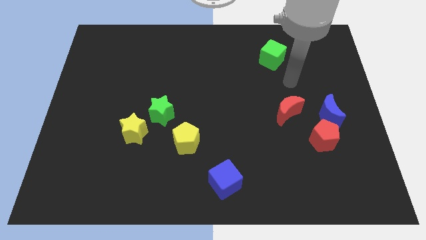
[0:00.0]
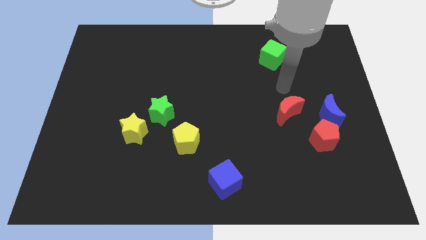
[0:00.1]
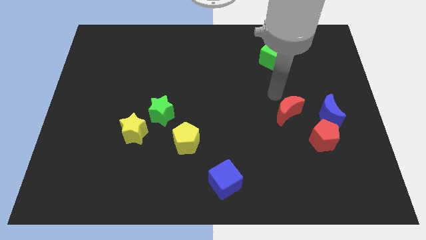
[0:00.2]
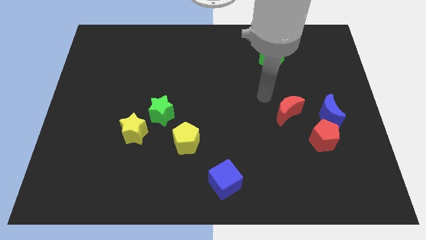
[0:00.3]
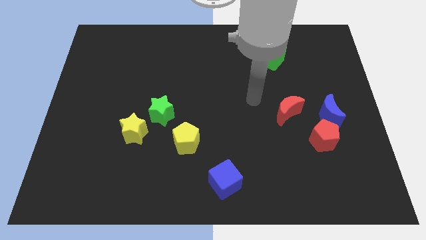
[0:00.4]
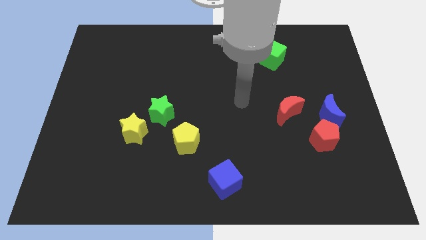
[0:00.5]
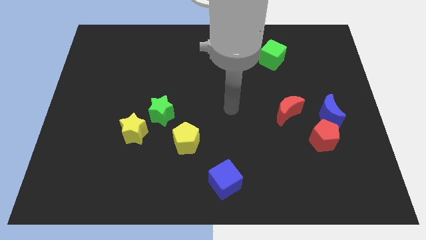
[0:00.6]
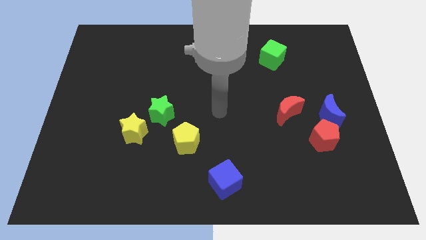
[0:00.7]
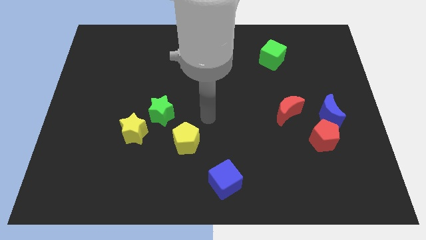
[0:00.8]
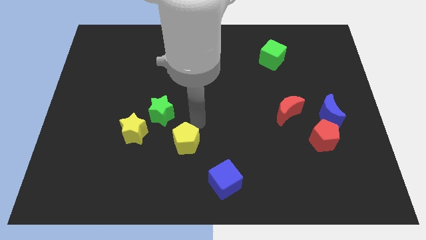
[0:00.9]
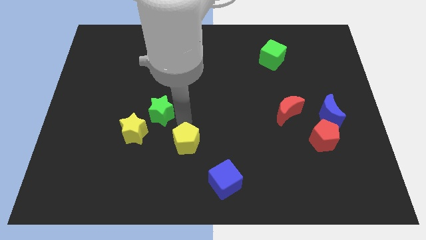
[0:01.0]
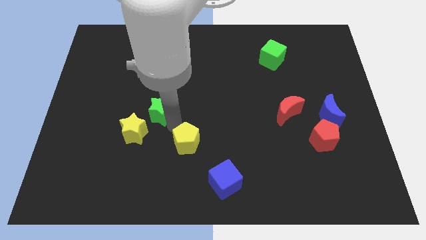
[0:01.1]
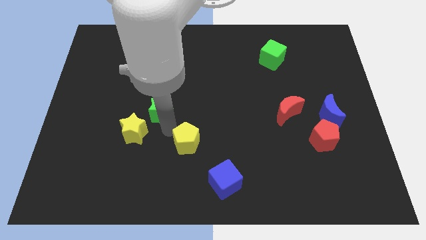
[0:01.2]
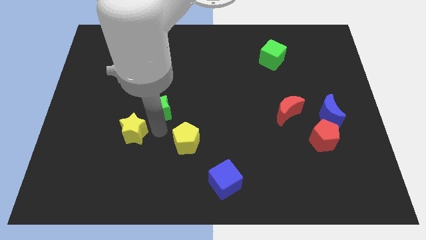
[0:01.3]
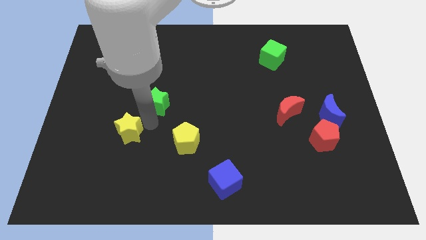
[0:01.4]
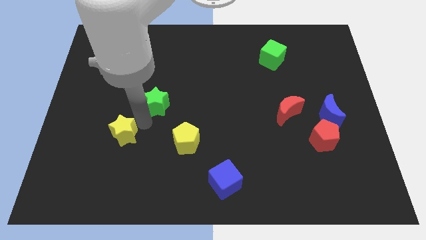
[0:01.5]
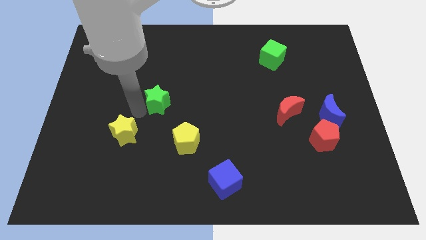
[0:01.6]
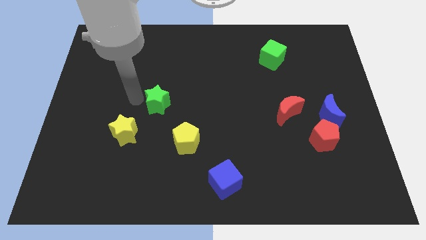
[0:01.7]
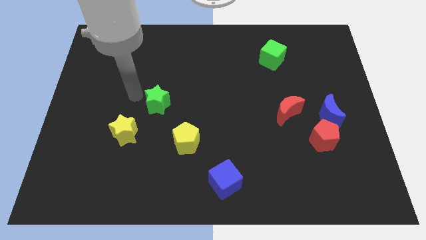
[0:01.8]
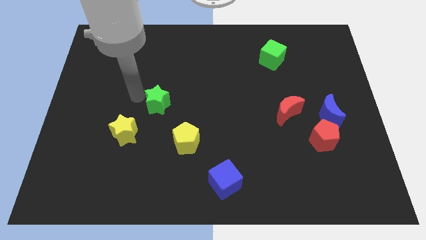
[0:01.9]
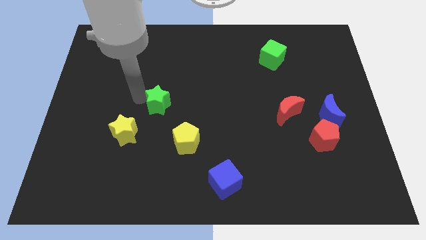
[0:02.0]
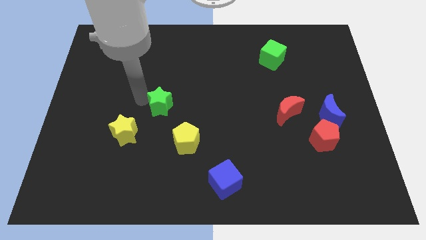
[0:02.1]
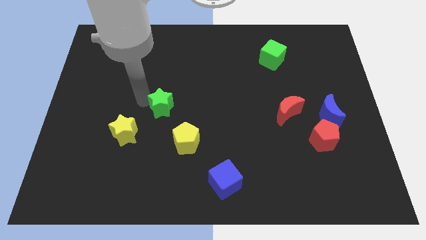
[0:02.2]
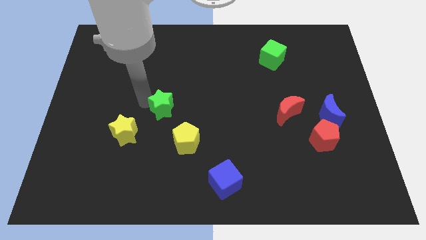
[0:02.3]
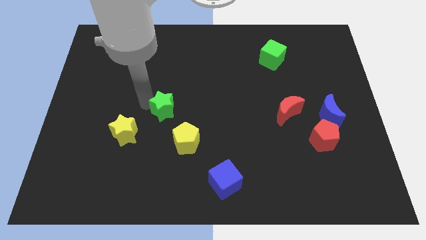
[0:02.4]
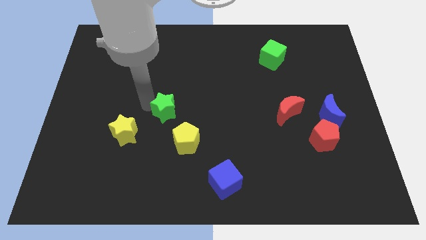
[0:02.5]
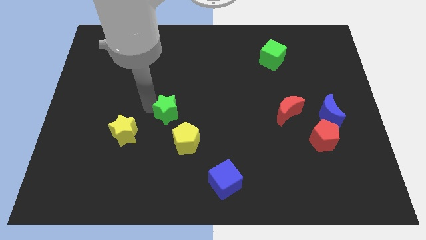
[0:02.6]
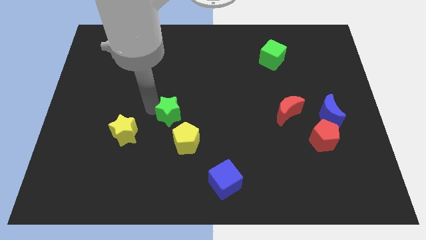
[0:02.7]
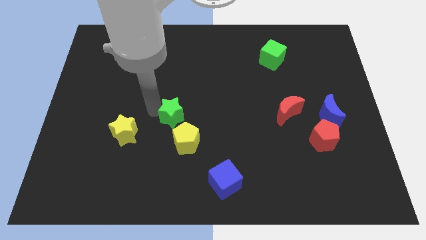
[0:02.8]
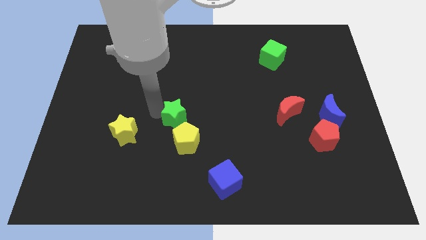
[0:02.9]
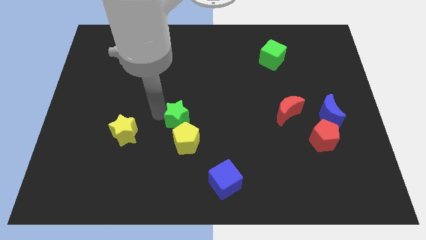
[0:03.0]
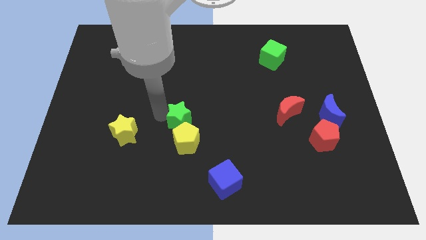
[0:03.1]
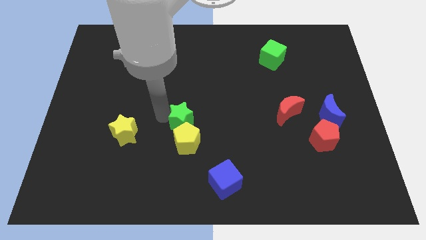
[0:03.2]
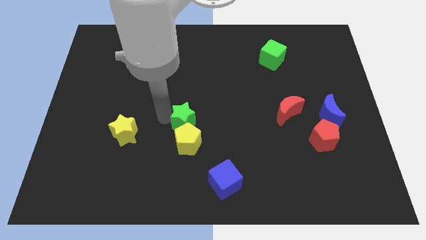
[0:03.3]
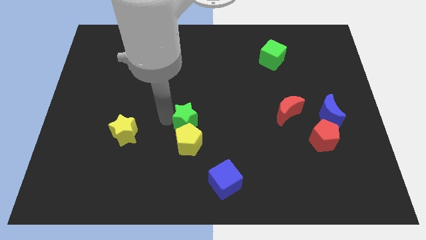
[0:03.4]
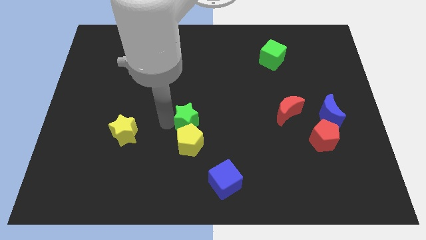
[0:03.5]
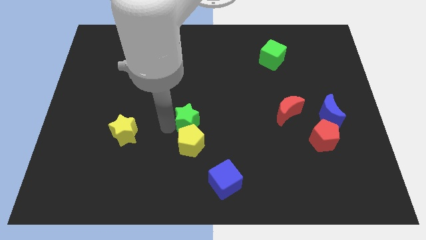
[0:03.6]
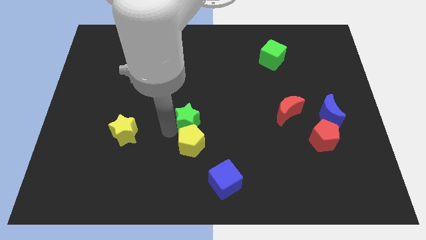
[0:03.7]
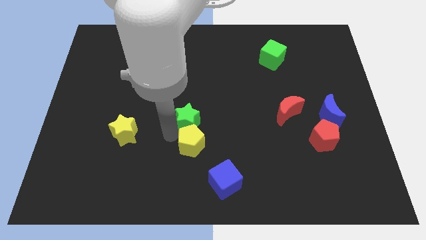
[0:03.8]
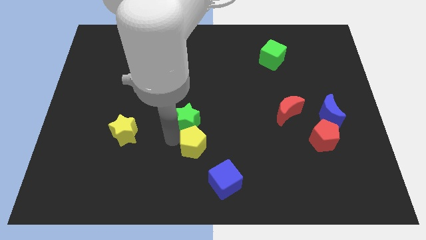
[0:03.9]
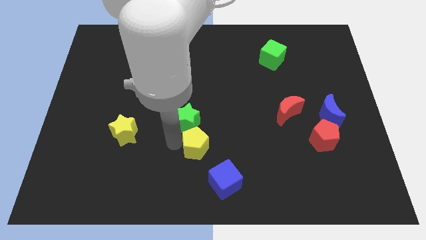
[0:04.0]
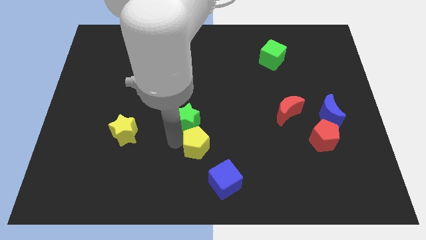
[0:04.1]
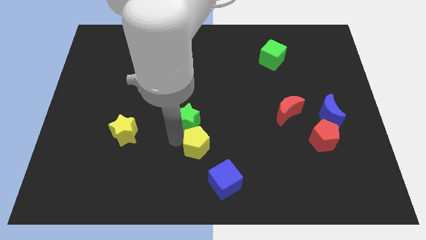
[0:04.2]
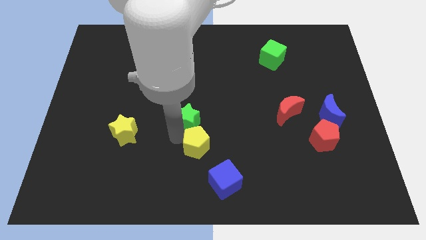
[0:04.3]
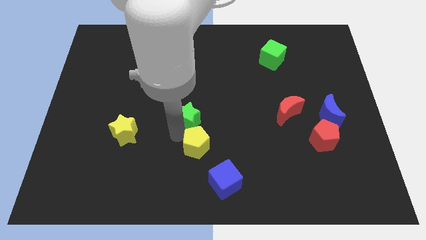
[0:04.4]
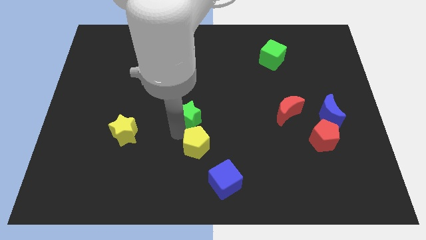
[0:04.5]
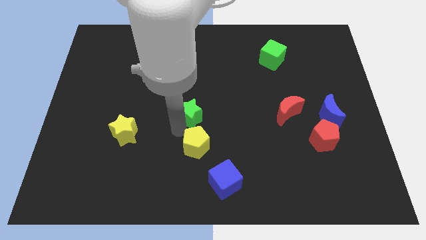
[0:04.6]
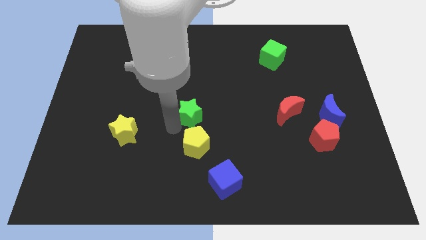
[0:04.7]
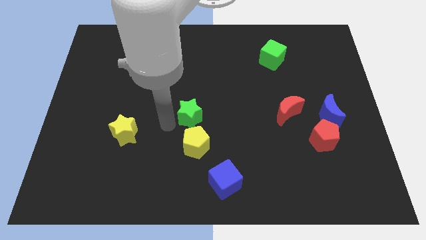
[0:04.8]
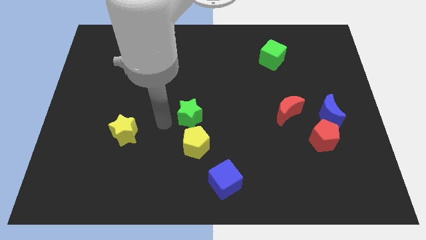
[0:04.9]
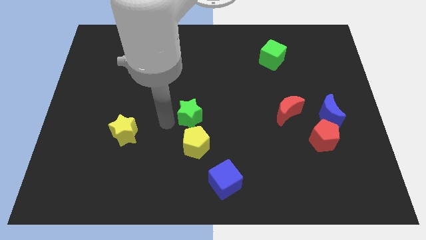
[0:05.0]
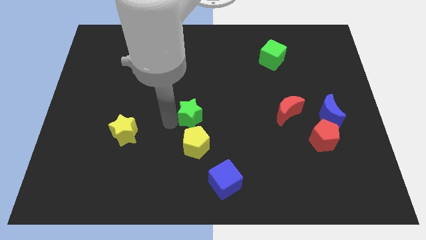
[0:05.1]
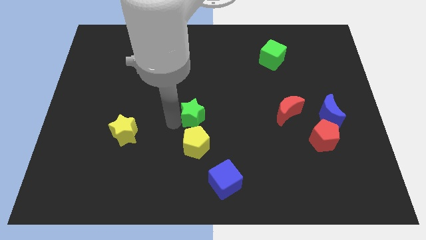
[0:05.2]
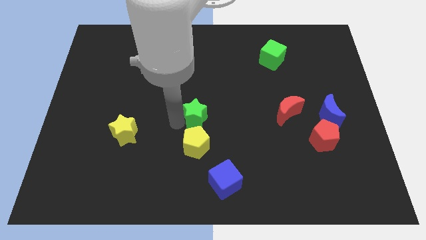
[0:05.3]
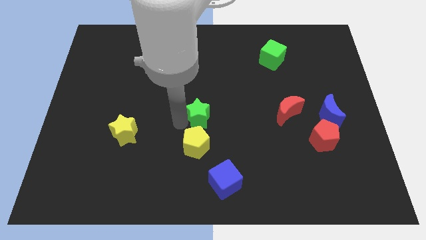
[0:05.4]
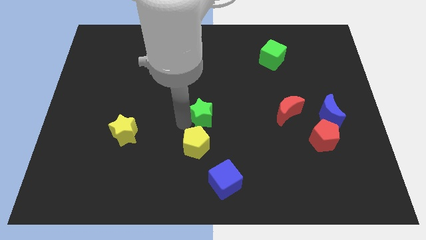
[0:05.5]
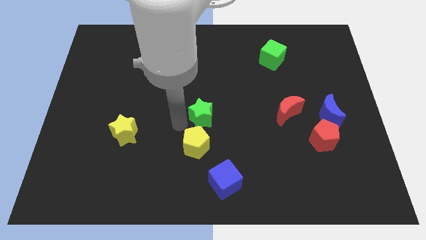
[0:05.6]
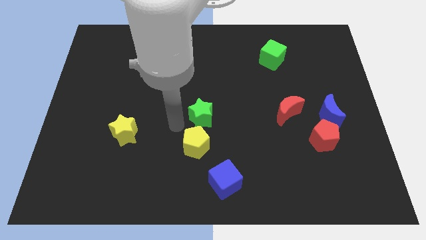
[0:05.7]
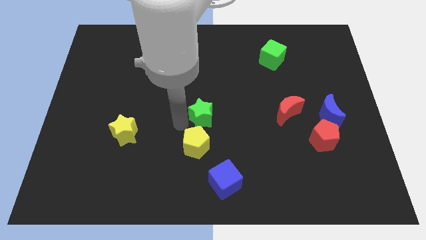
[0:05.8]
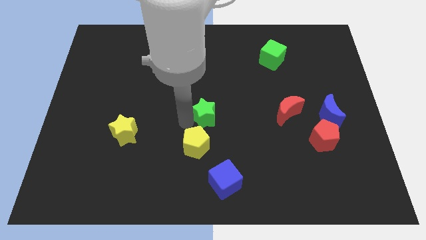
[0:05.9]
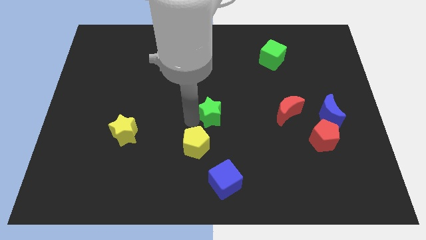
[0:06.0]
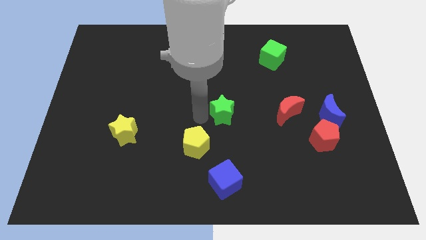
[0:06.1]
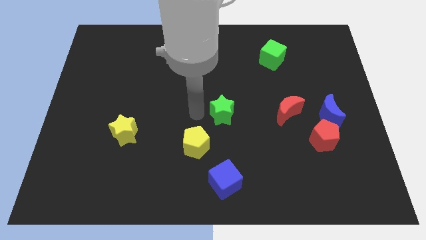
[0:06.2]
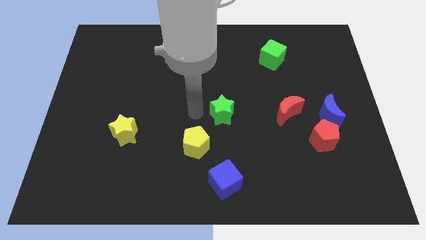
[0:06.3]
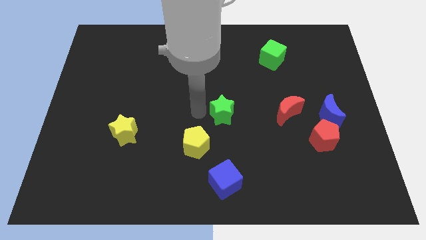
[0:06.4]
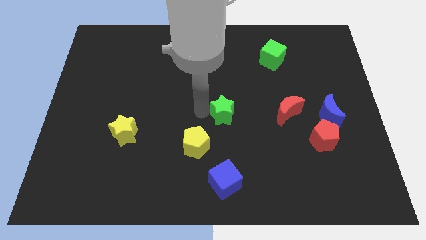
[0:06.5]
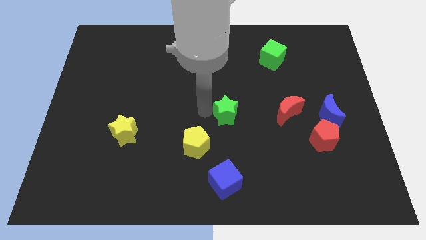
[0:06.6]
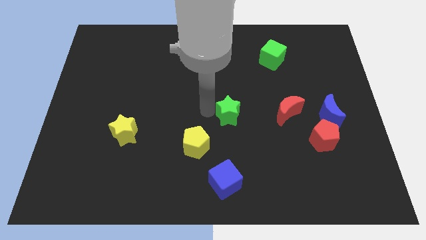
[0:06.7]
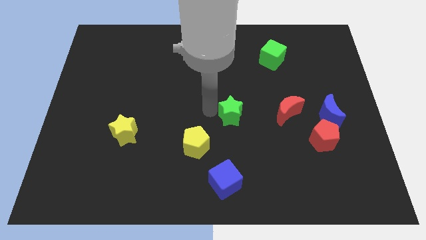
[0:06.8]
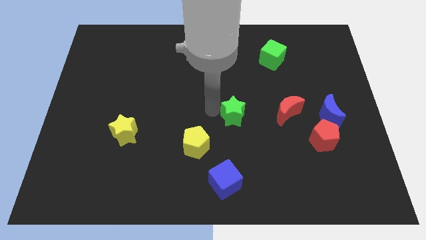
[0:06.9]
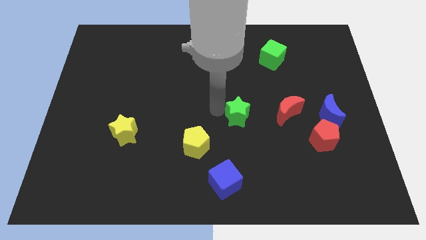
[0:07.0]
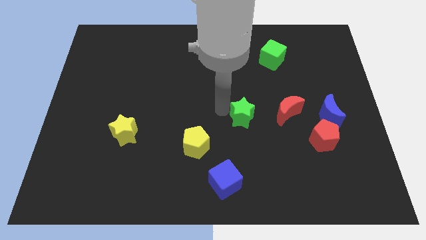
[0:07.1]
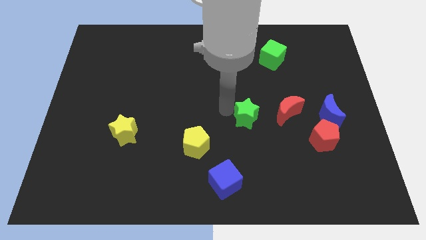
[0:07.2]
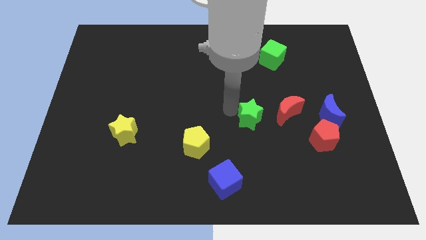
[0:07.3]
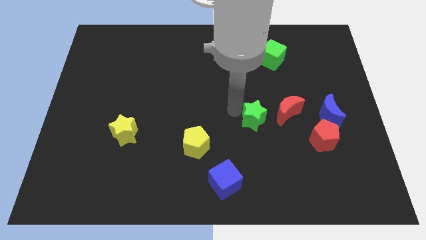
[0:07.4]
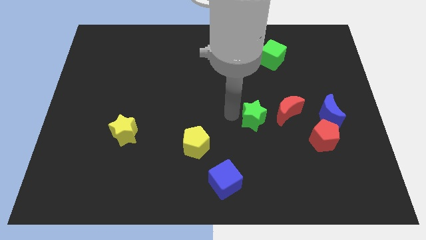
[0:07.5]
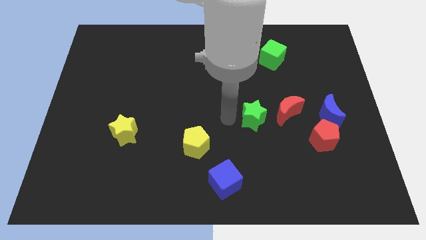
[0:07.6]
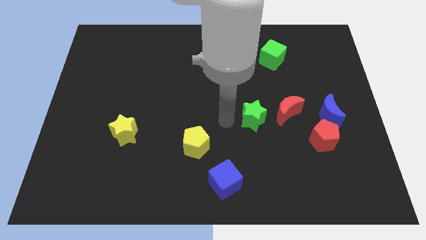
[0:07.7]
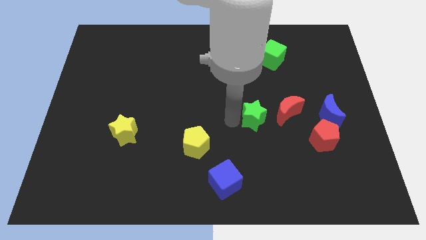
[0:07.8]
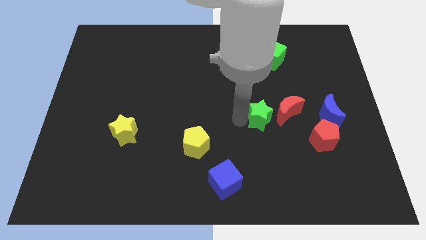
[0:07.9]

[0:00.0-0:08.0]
slide the green star to the left of the blue moon
